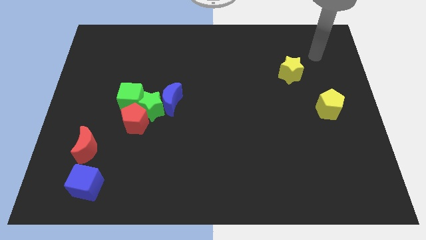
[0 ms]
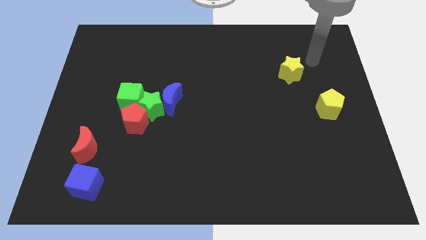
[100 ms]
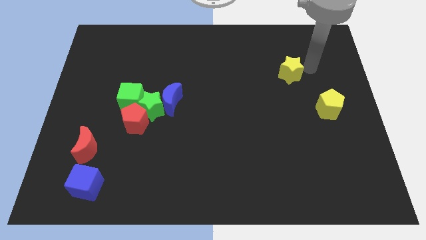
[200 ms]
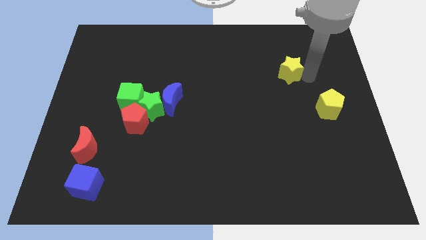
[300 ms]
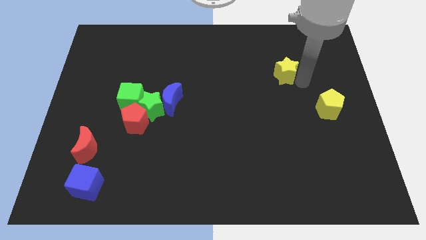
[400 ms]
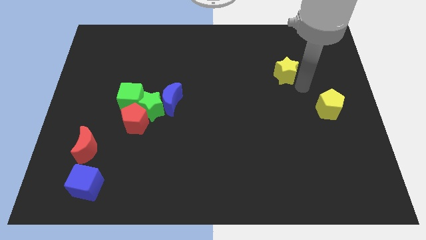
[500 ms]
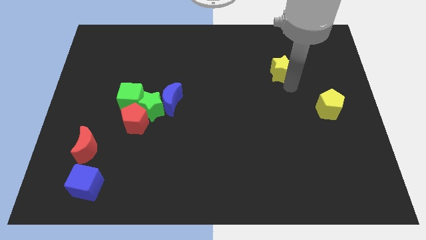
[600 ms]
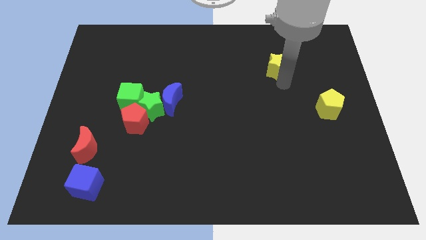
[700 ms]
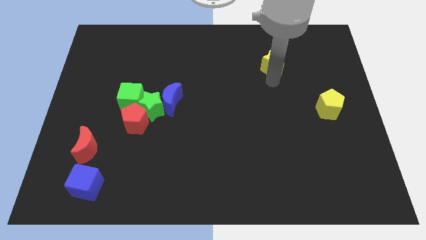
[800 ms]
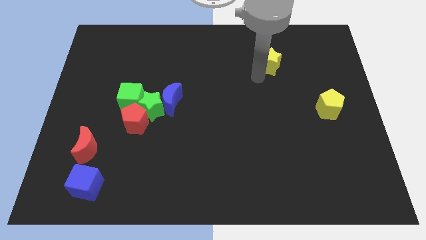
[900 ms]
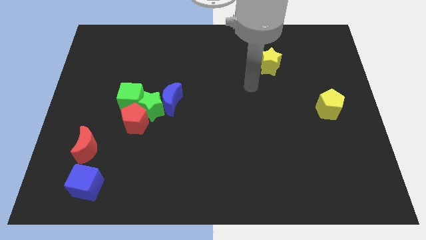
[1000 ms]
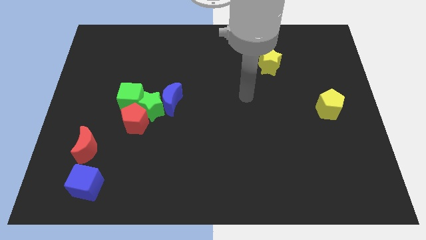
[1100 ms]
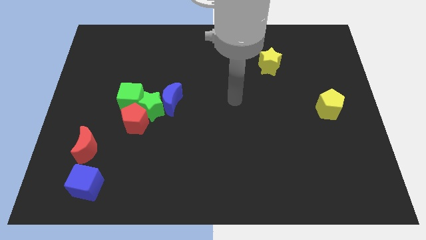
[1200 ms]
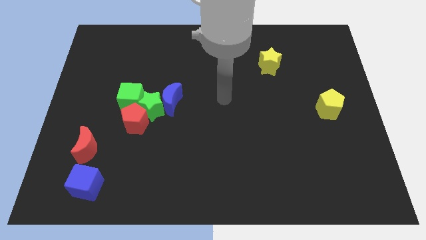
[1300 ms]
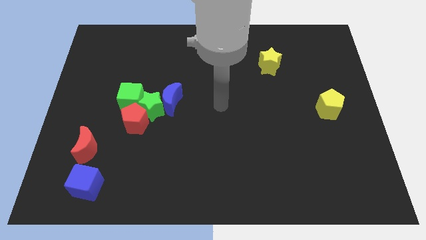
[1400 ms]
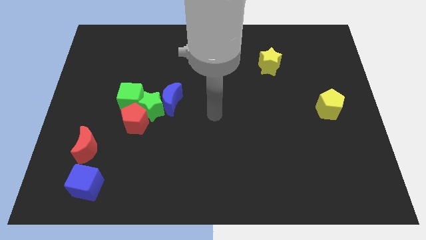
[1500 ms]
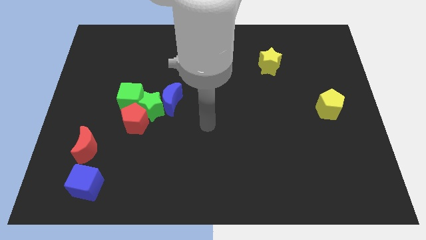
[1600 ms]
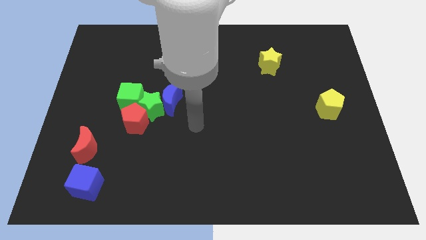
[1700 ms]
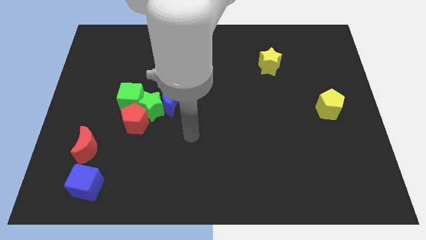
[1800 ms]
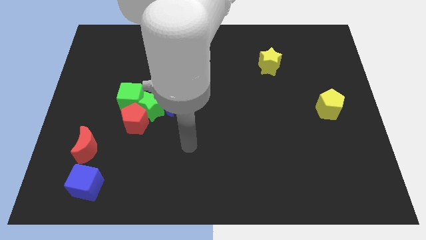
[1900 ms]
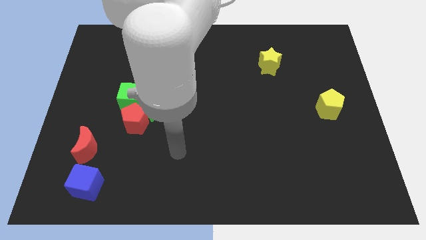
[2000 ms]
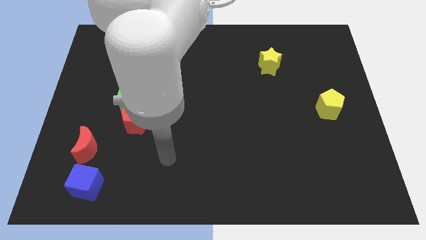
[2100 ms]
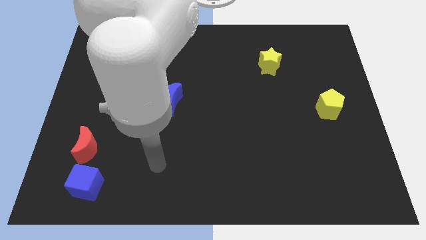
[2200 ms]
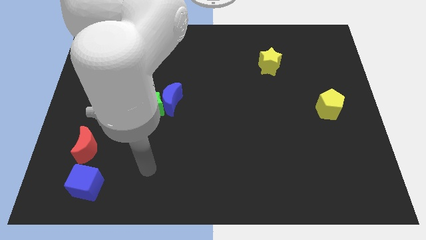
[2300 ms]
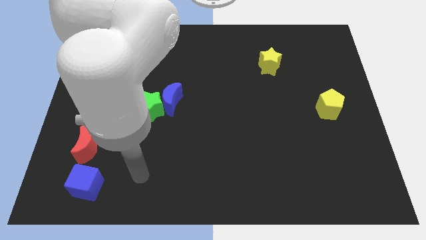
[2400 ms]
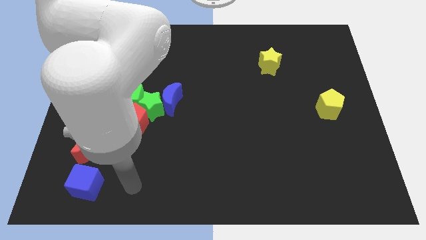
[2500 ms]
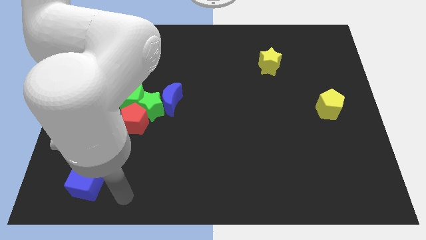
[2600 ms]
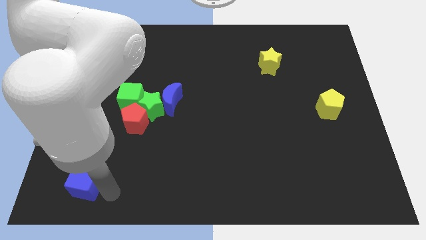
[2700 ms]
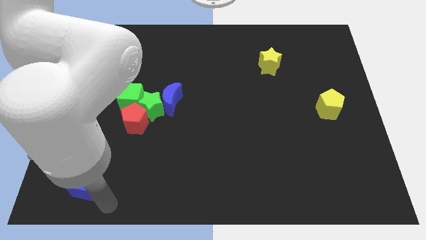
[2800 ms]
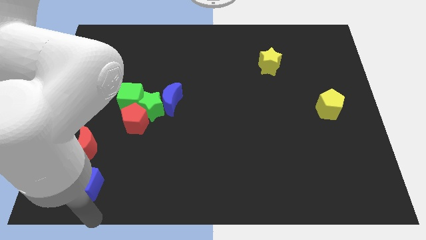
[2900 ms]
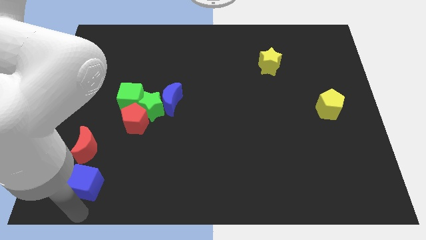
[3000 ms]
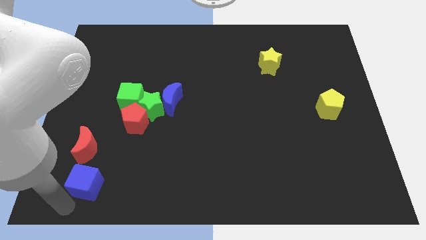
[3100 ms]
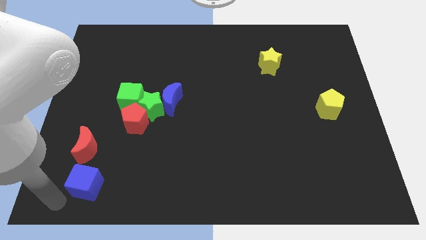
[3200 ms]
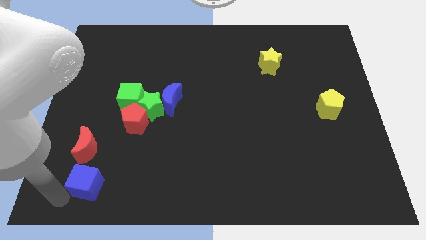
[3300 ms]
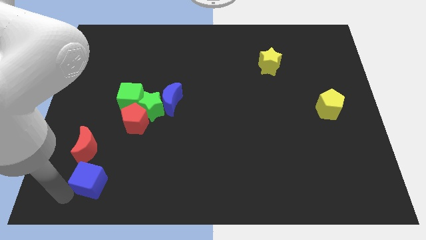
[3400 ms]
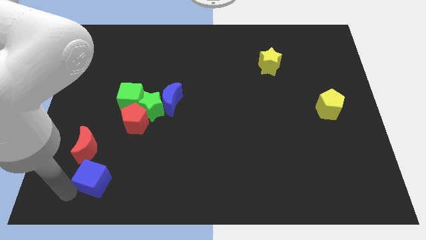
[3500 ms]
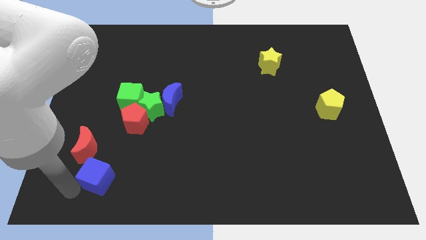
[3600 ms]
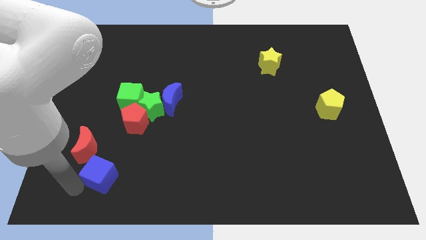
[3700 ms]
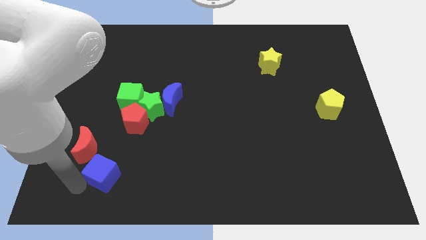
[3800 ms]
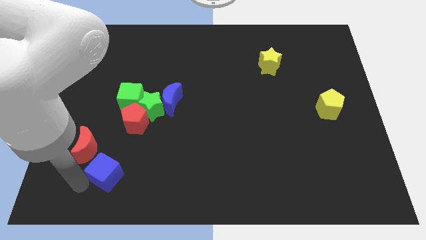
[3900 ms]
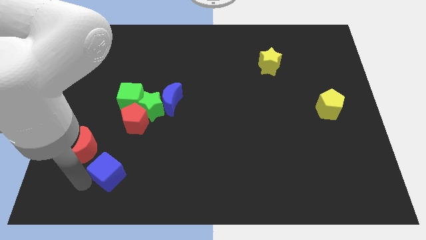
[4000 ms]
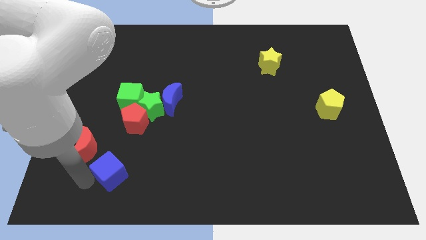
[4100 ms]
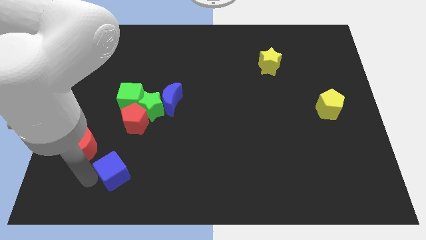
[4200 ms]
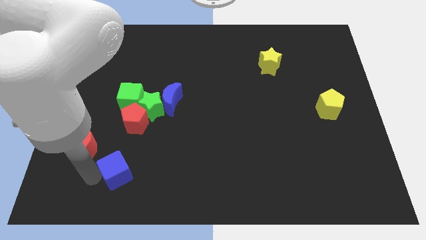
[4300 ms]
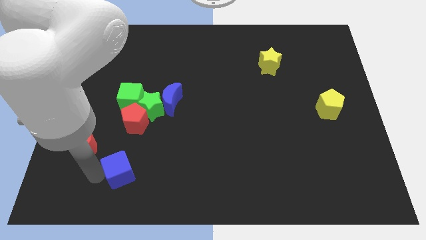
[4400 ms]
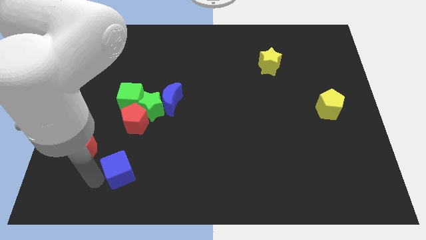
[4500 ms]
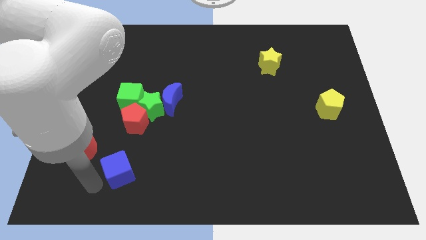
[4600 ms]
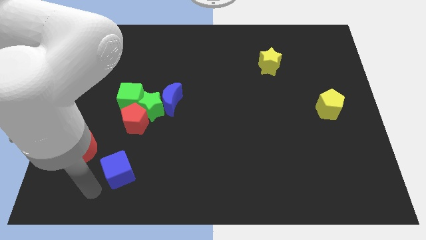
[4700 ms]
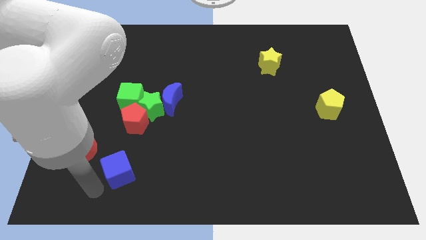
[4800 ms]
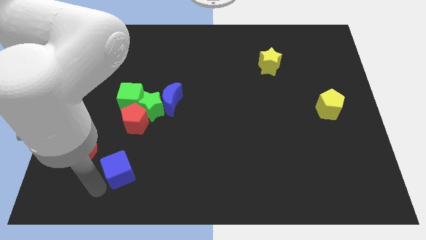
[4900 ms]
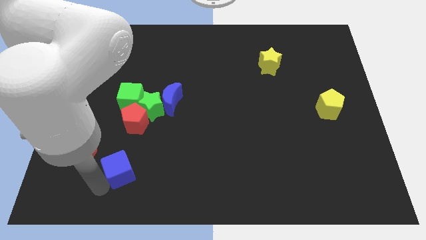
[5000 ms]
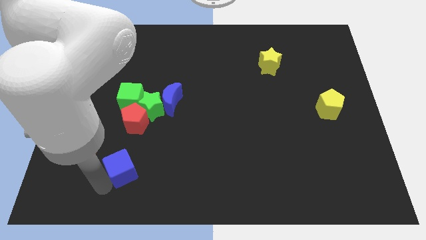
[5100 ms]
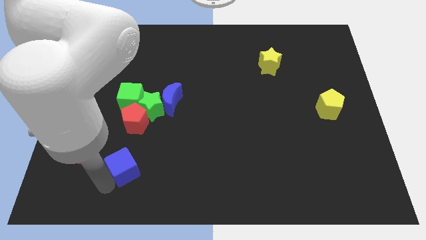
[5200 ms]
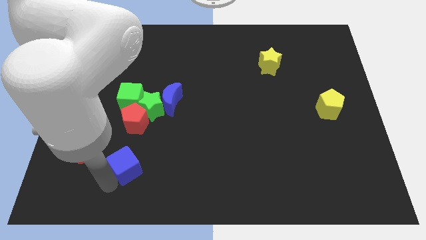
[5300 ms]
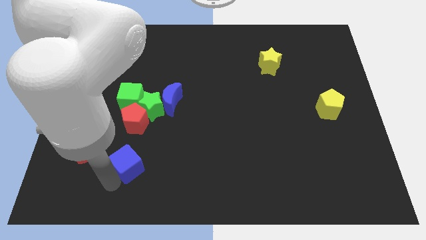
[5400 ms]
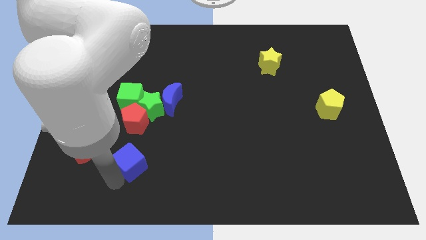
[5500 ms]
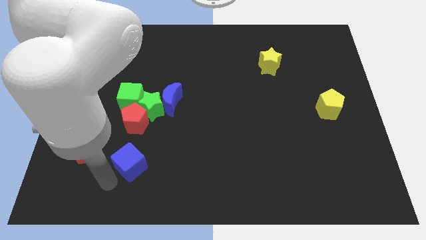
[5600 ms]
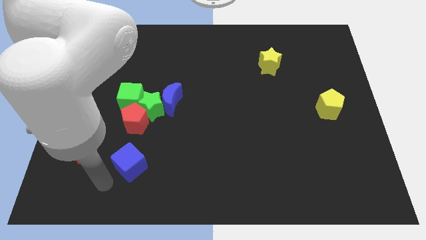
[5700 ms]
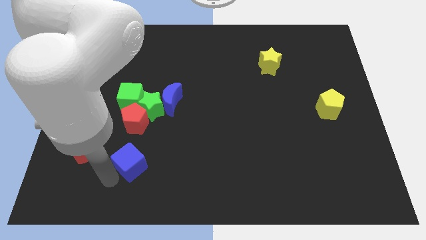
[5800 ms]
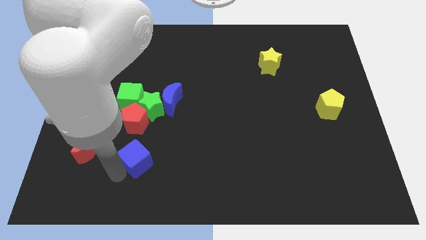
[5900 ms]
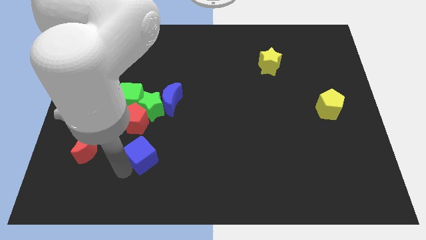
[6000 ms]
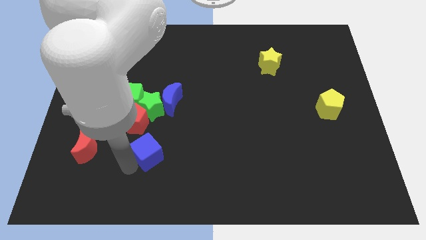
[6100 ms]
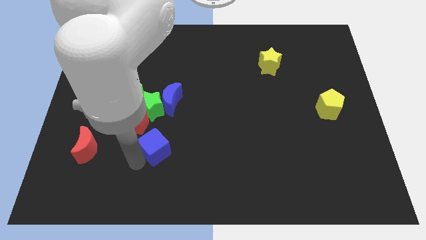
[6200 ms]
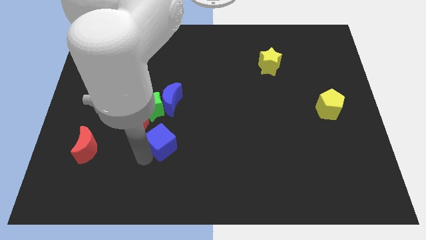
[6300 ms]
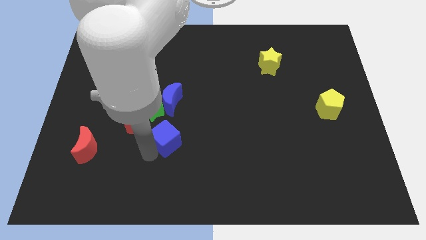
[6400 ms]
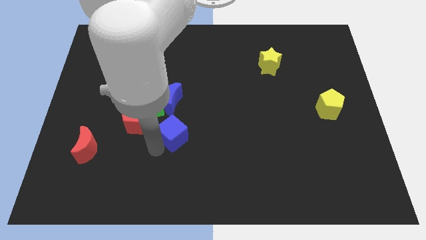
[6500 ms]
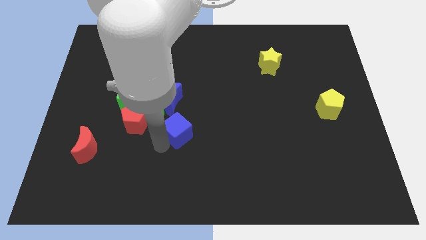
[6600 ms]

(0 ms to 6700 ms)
push the blue cube to the middle
